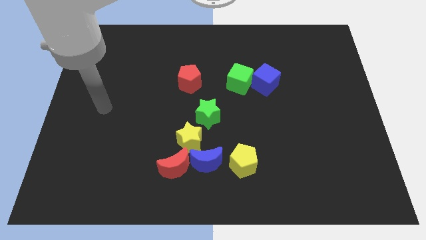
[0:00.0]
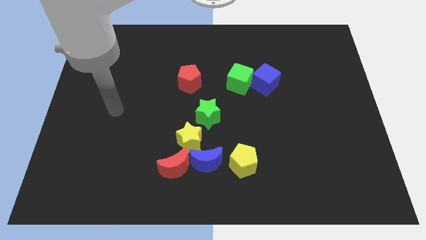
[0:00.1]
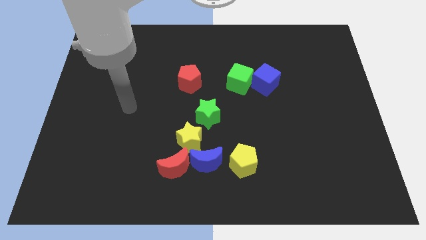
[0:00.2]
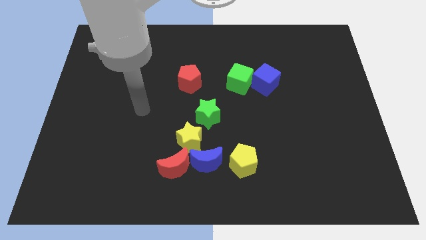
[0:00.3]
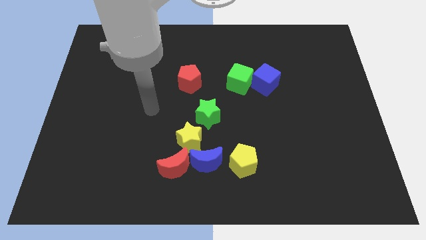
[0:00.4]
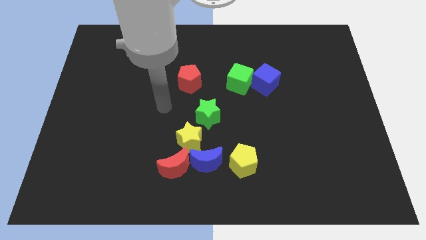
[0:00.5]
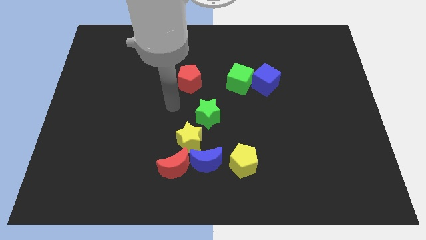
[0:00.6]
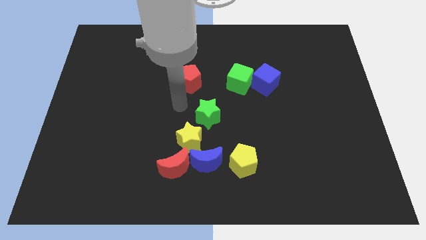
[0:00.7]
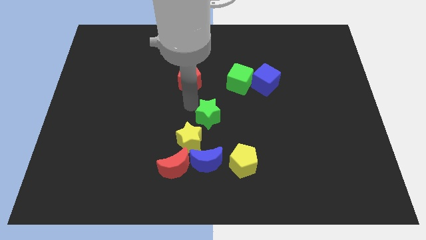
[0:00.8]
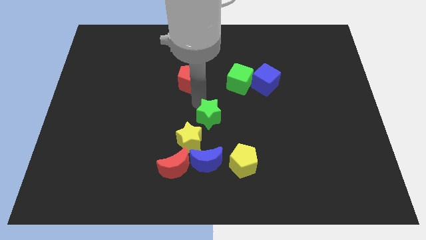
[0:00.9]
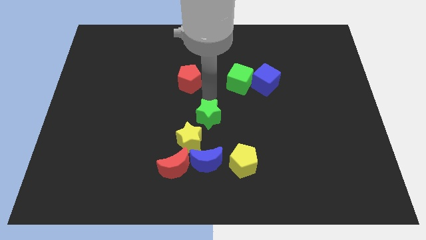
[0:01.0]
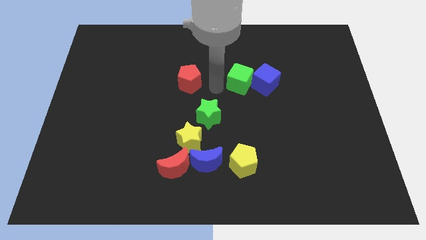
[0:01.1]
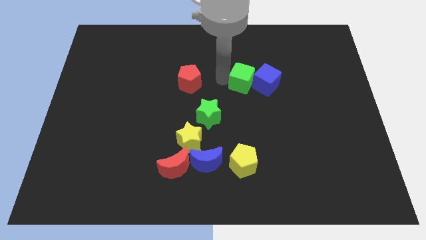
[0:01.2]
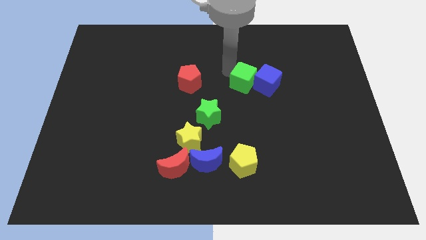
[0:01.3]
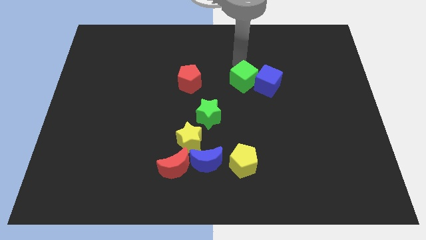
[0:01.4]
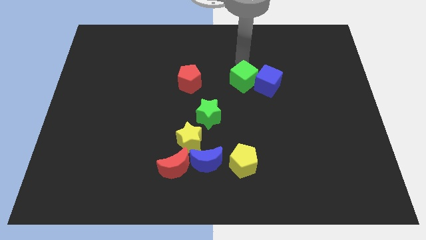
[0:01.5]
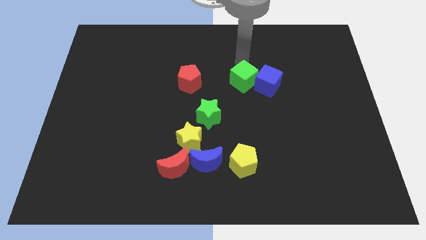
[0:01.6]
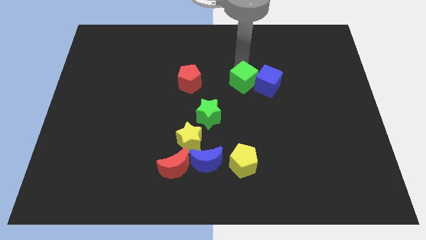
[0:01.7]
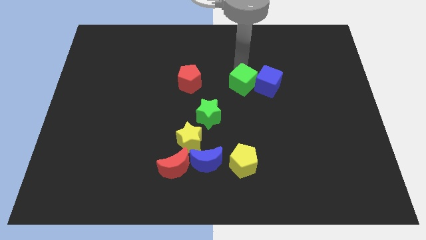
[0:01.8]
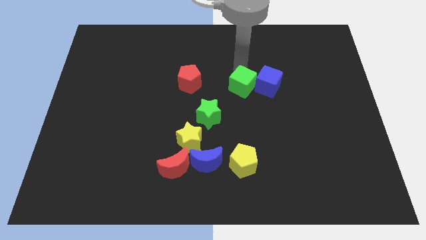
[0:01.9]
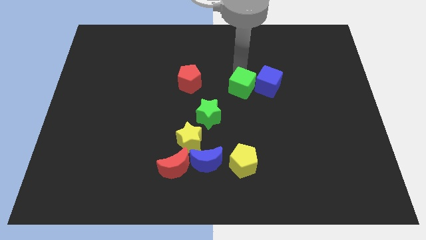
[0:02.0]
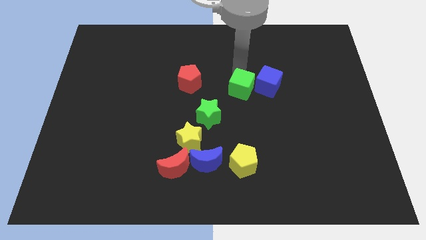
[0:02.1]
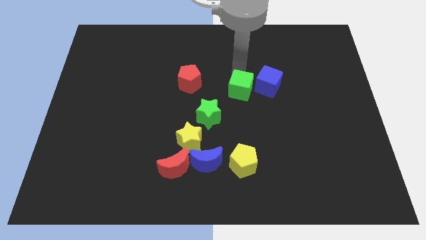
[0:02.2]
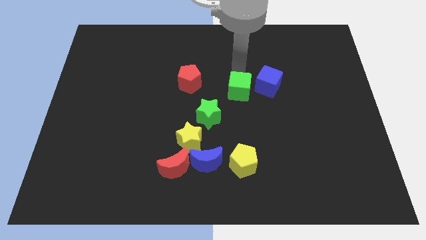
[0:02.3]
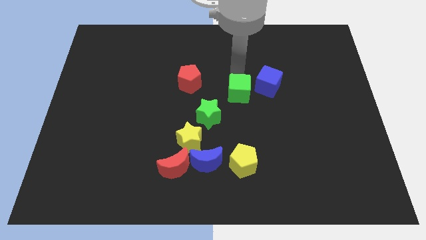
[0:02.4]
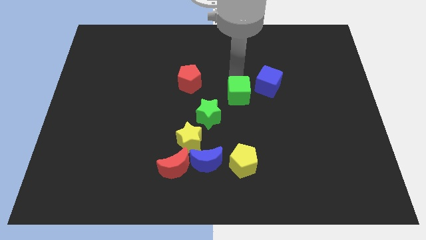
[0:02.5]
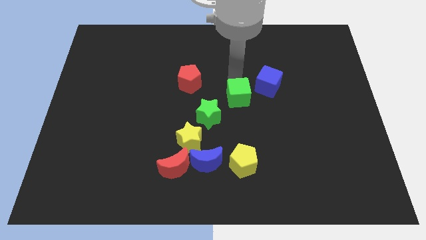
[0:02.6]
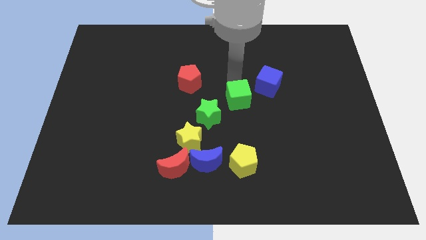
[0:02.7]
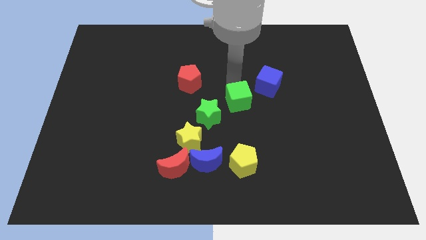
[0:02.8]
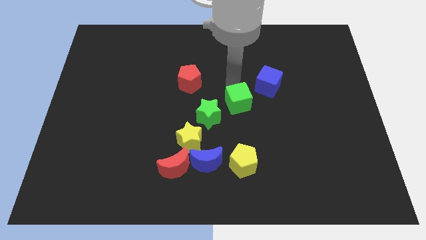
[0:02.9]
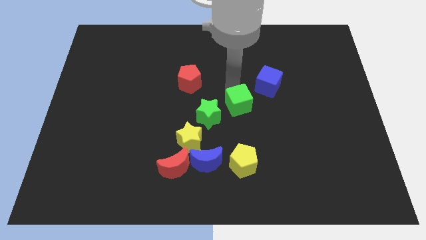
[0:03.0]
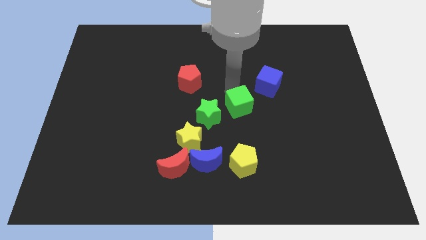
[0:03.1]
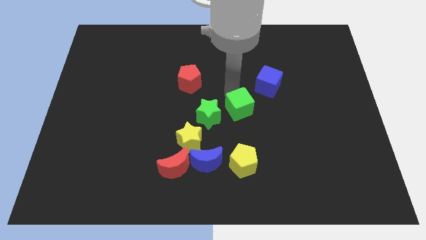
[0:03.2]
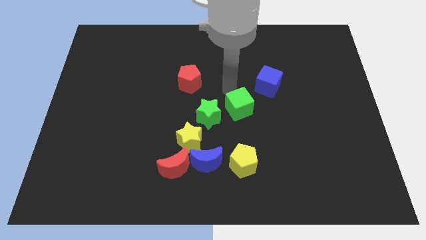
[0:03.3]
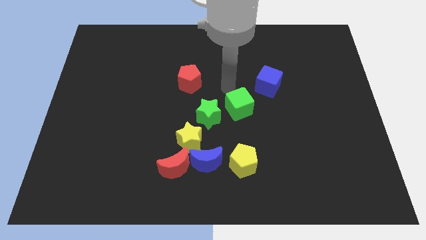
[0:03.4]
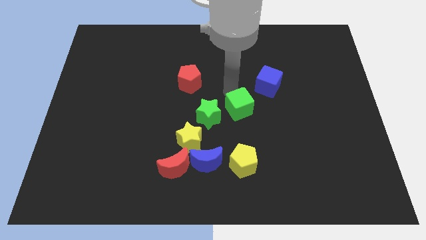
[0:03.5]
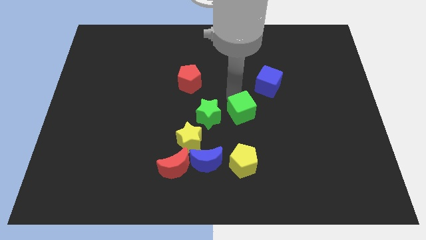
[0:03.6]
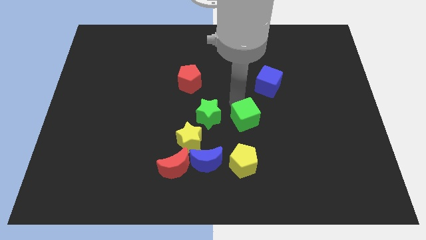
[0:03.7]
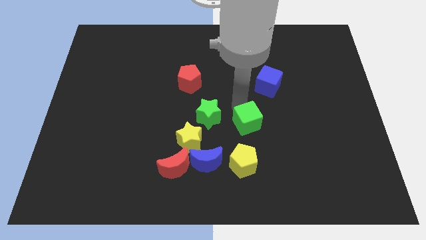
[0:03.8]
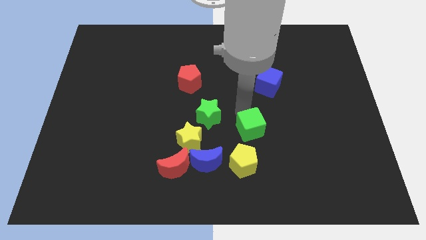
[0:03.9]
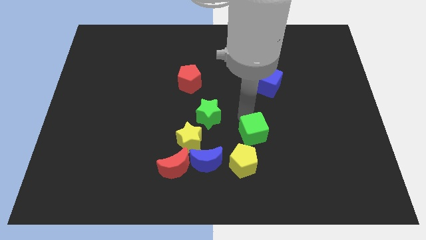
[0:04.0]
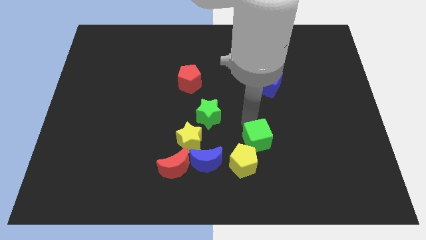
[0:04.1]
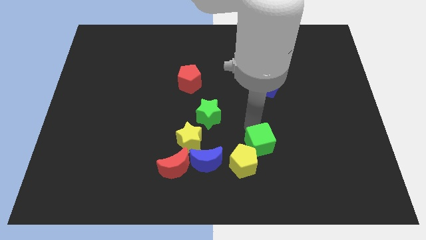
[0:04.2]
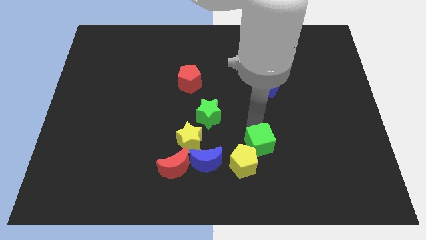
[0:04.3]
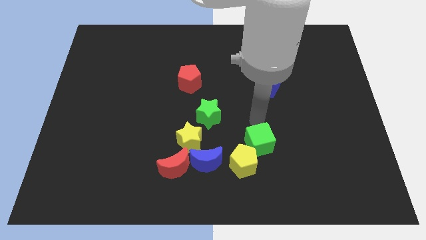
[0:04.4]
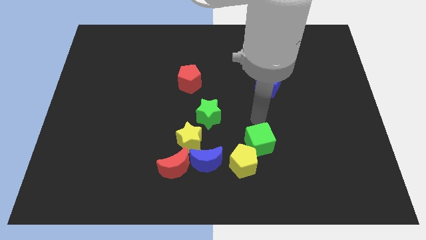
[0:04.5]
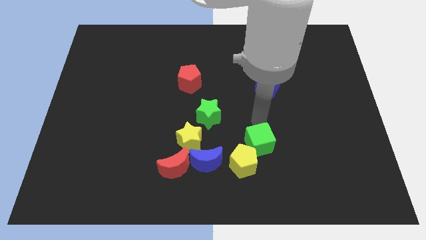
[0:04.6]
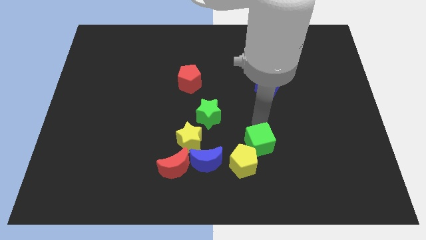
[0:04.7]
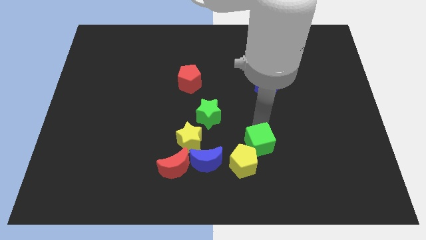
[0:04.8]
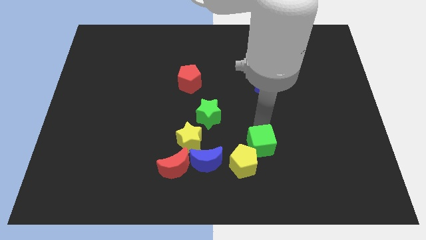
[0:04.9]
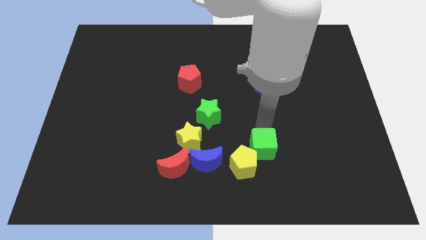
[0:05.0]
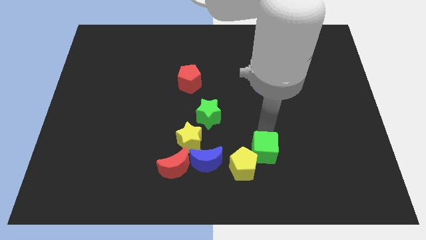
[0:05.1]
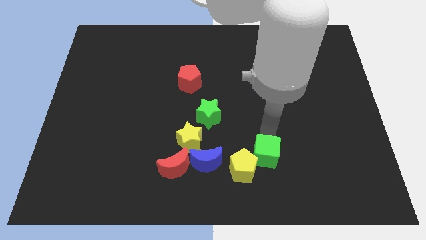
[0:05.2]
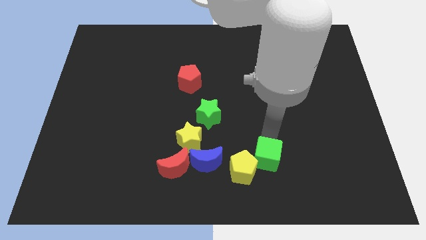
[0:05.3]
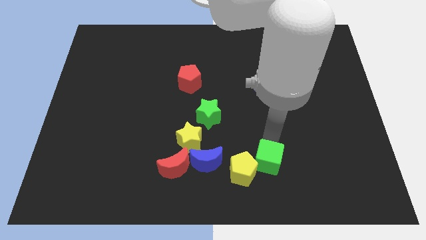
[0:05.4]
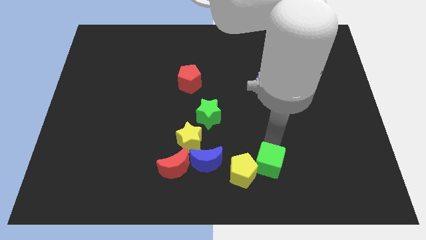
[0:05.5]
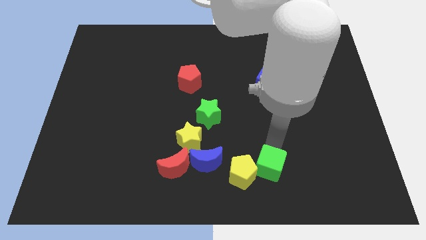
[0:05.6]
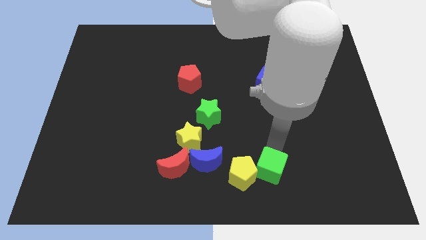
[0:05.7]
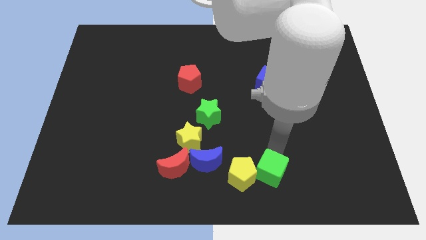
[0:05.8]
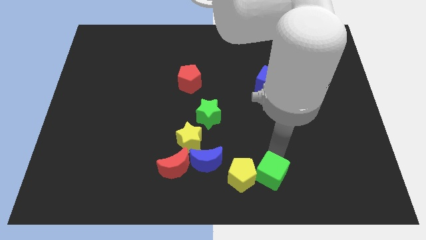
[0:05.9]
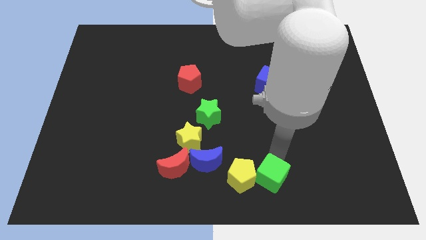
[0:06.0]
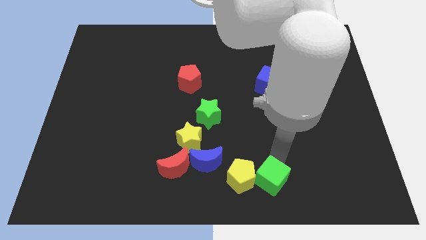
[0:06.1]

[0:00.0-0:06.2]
slide the green cube to the bottom side

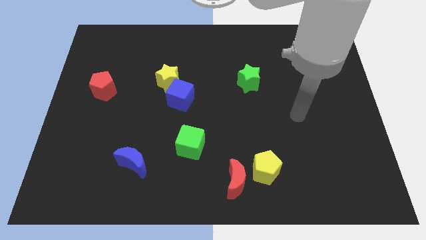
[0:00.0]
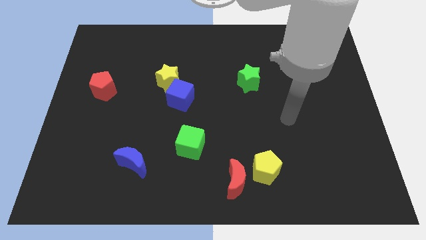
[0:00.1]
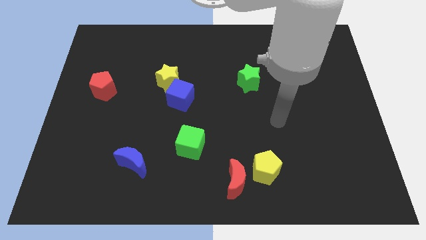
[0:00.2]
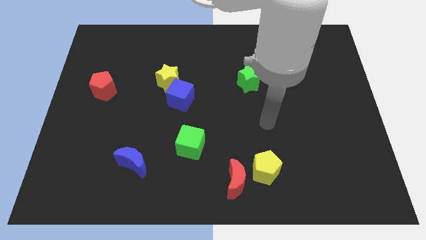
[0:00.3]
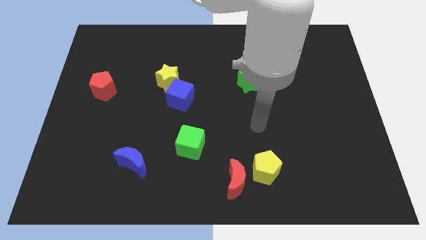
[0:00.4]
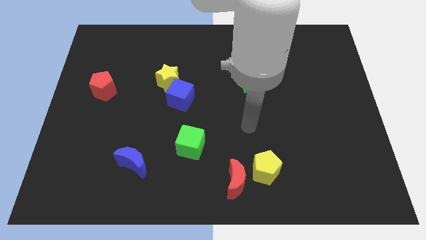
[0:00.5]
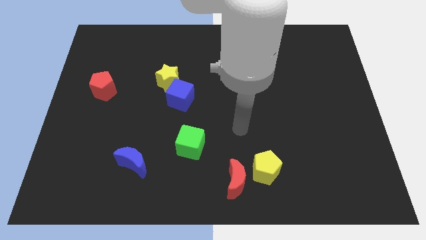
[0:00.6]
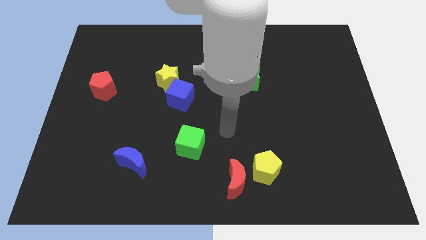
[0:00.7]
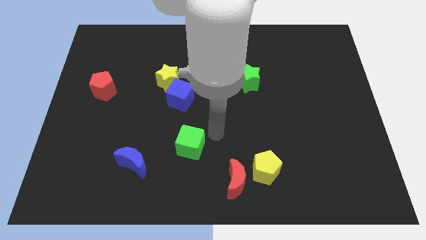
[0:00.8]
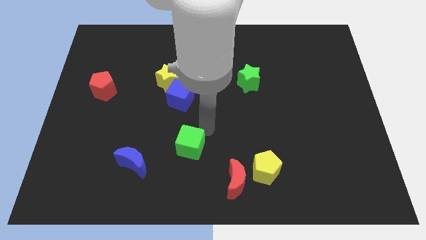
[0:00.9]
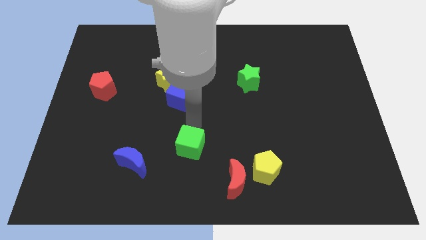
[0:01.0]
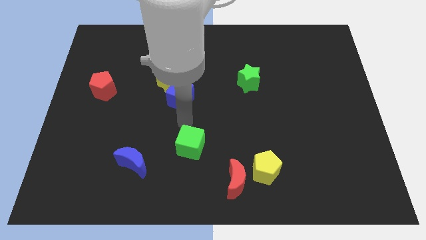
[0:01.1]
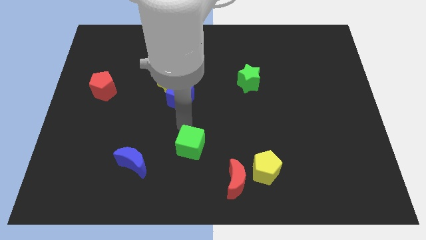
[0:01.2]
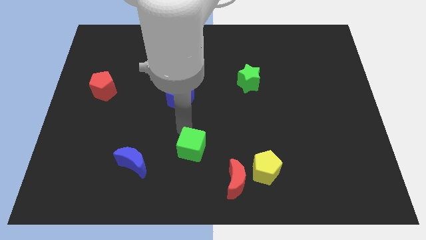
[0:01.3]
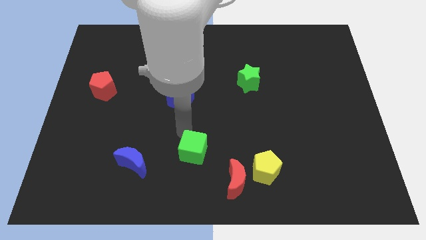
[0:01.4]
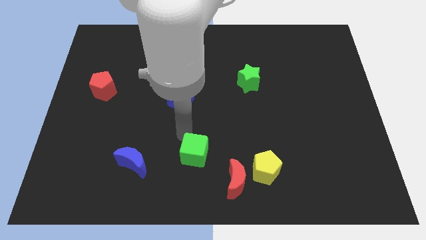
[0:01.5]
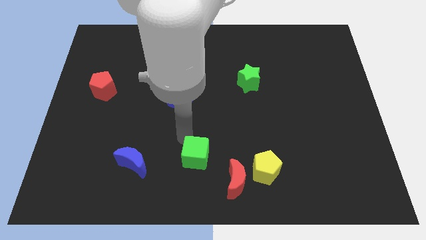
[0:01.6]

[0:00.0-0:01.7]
move the green cube to the bottom
